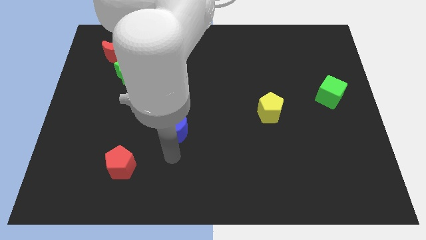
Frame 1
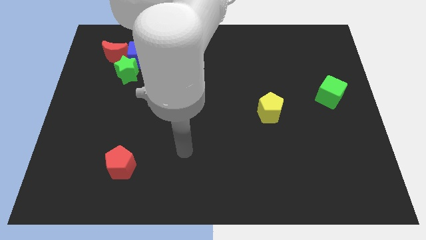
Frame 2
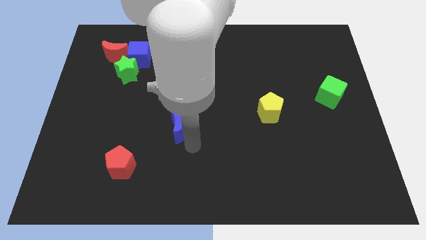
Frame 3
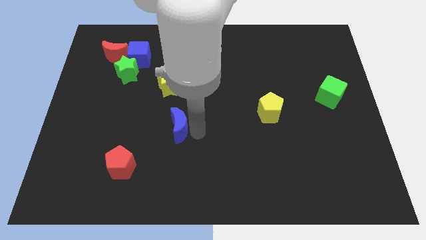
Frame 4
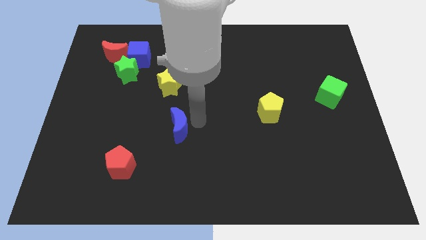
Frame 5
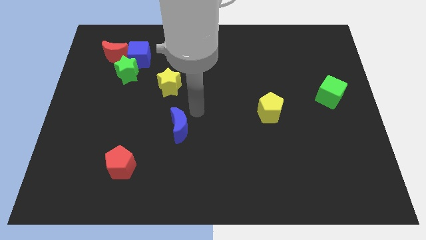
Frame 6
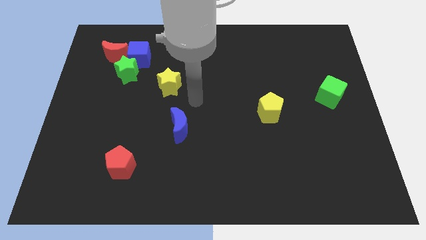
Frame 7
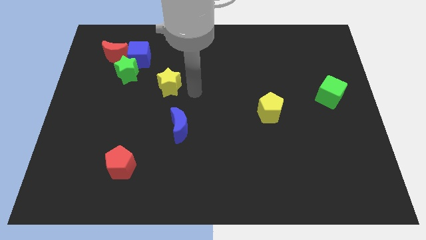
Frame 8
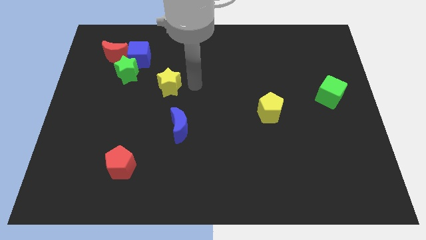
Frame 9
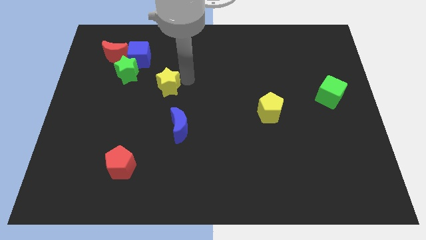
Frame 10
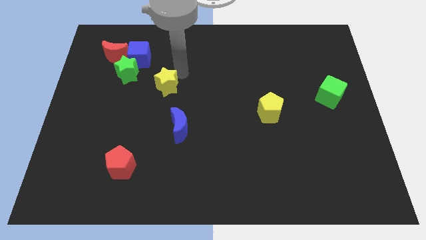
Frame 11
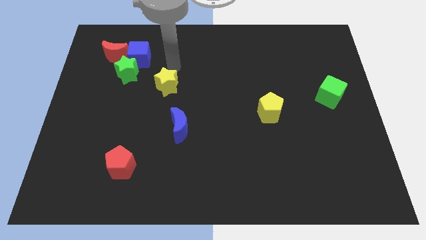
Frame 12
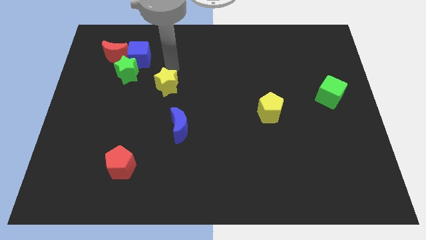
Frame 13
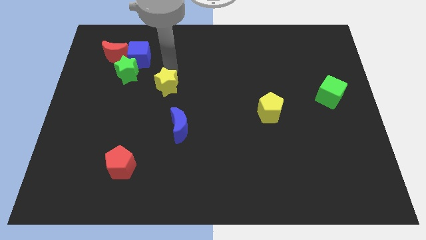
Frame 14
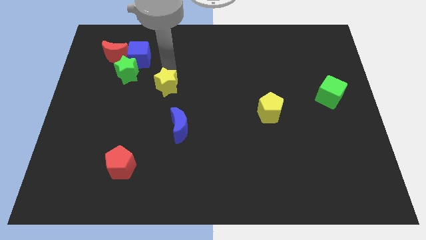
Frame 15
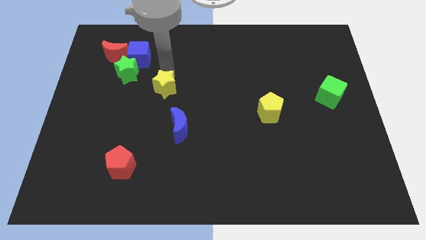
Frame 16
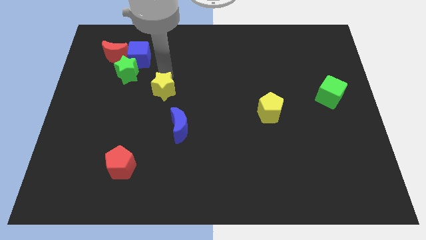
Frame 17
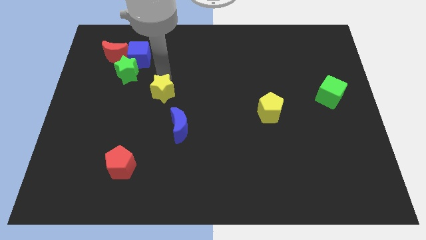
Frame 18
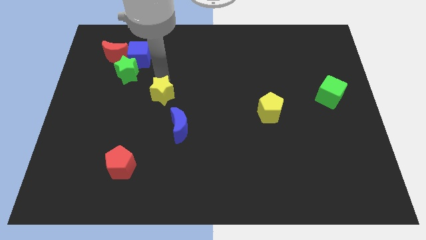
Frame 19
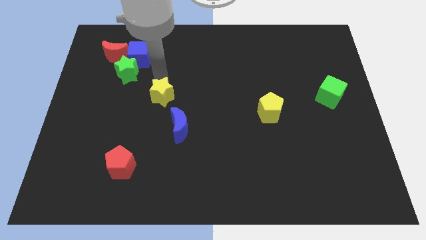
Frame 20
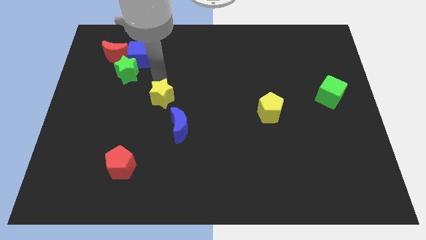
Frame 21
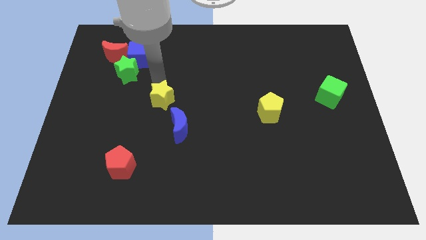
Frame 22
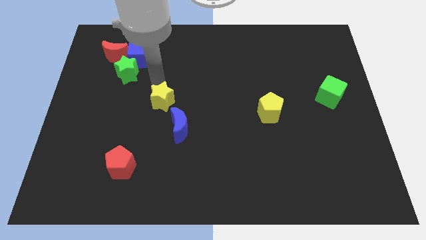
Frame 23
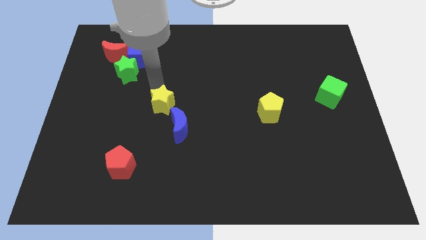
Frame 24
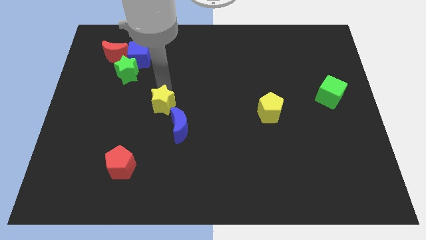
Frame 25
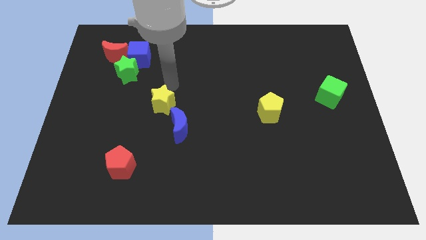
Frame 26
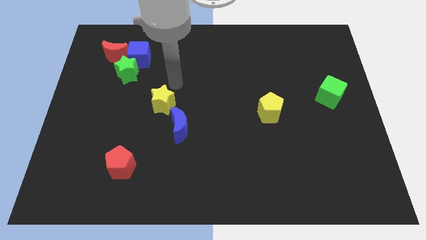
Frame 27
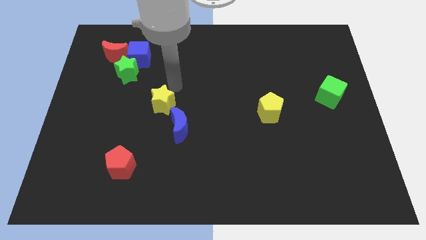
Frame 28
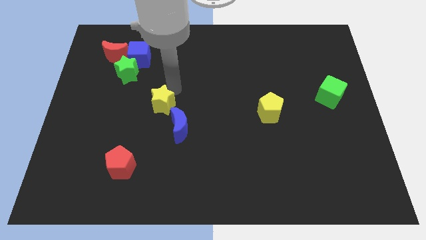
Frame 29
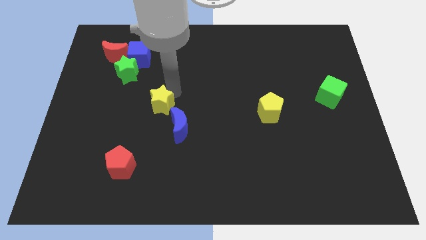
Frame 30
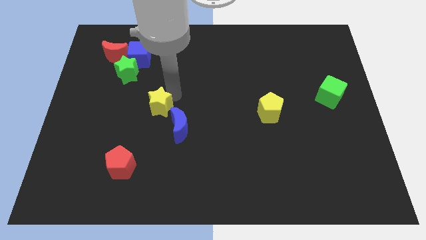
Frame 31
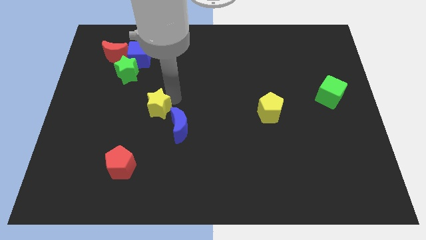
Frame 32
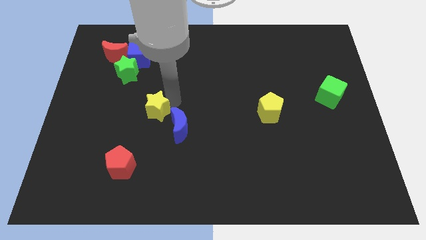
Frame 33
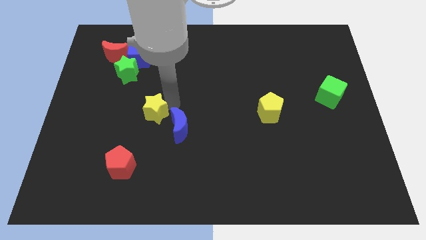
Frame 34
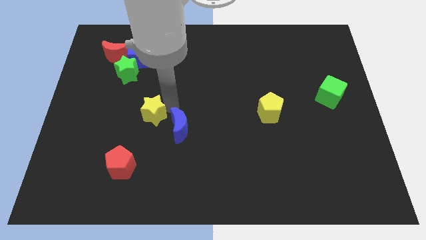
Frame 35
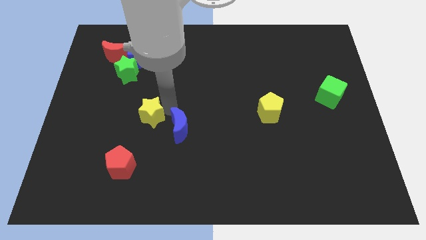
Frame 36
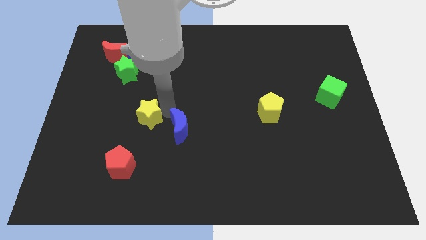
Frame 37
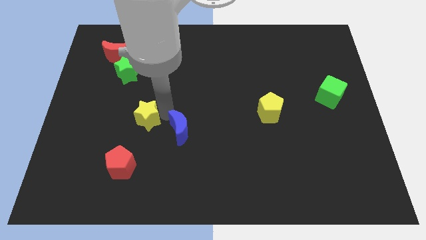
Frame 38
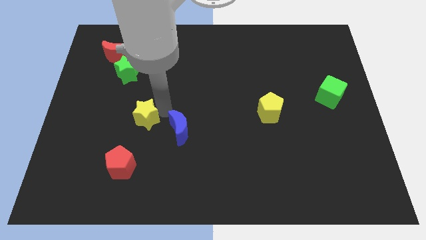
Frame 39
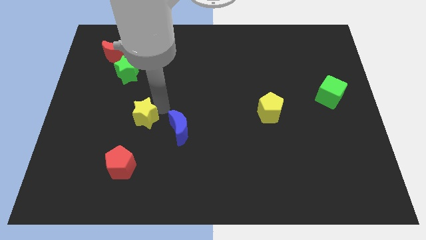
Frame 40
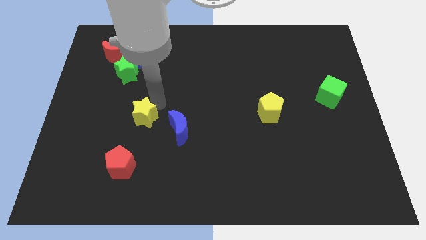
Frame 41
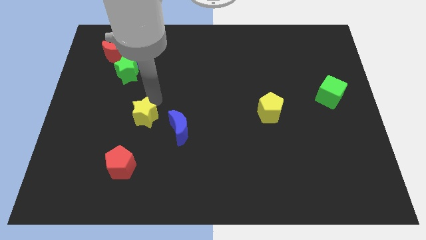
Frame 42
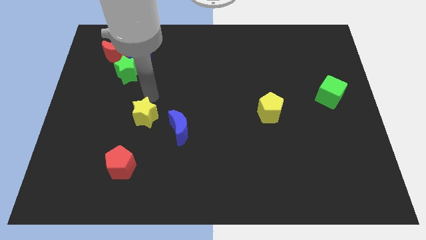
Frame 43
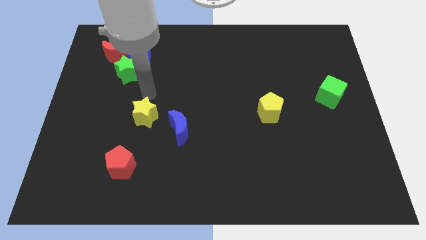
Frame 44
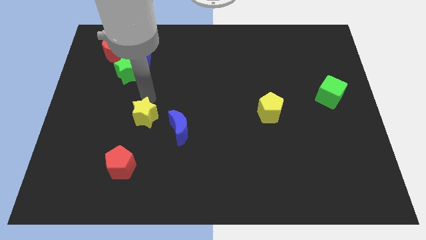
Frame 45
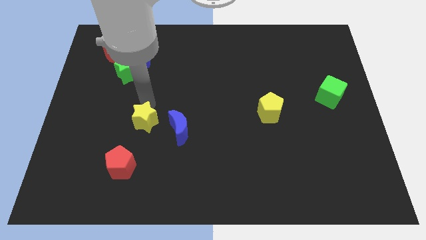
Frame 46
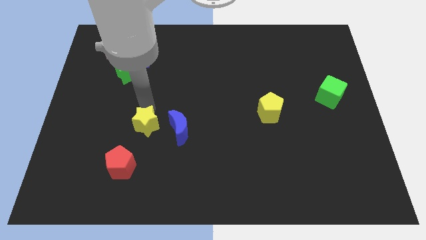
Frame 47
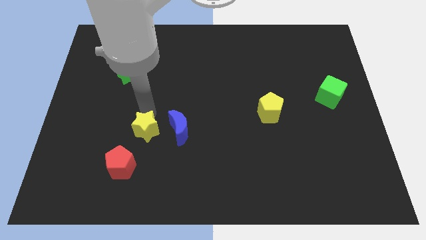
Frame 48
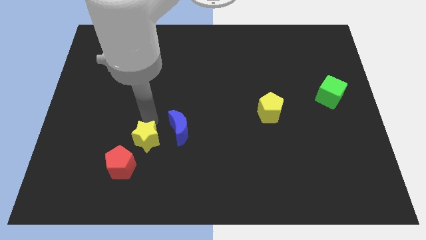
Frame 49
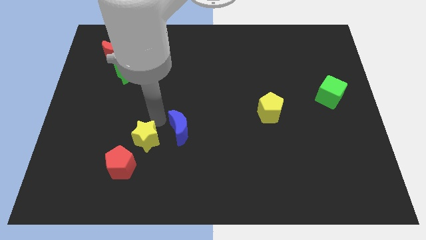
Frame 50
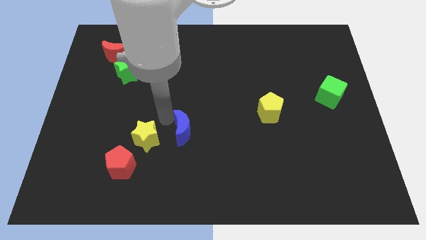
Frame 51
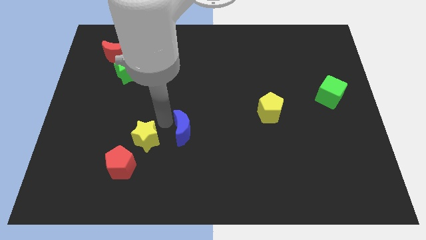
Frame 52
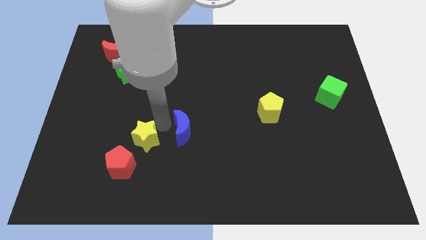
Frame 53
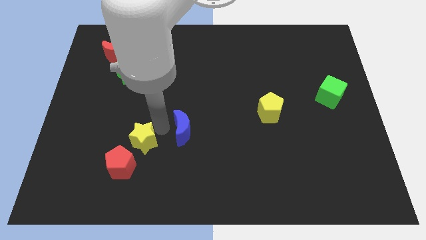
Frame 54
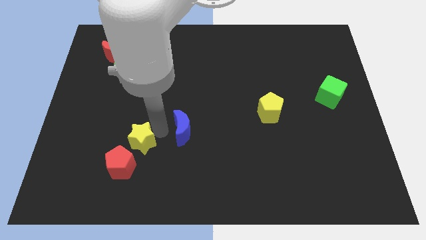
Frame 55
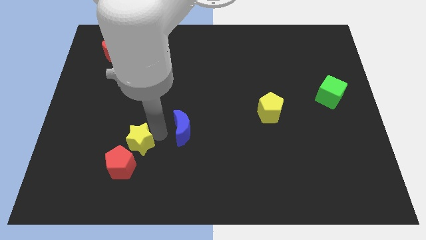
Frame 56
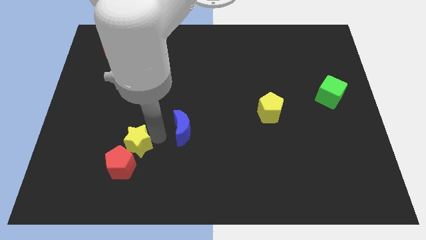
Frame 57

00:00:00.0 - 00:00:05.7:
push the yellow star towards the red pentagon

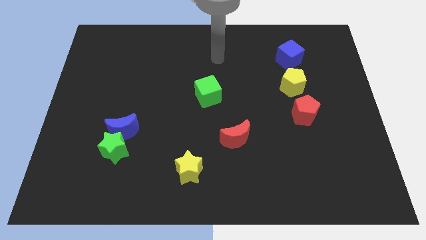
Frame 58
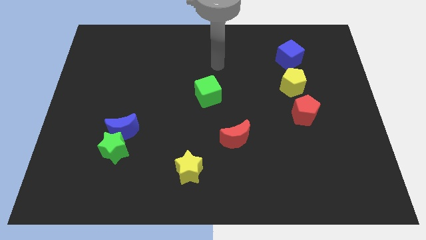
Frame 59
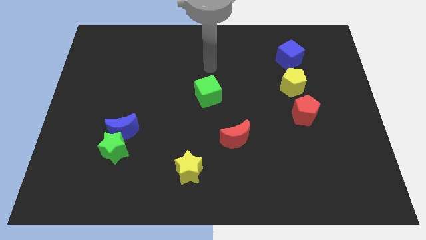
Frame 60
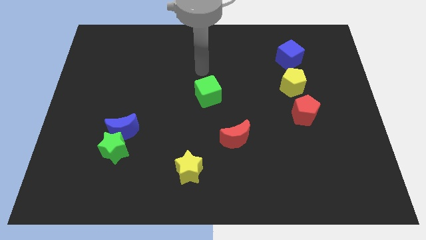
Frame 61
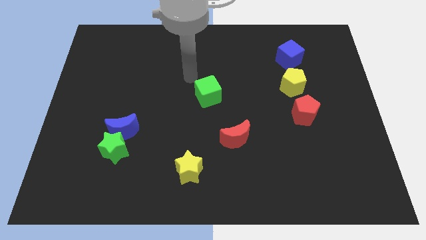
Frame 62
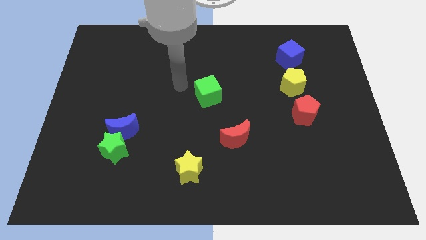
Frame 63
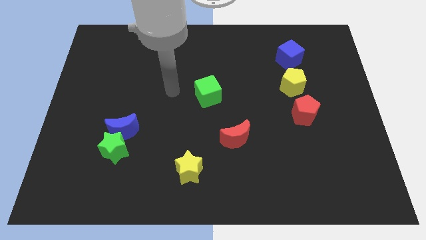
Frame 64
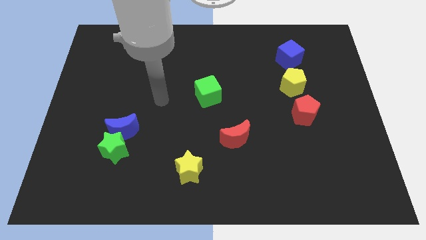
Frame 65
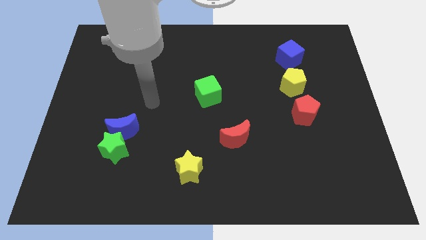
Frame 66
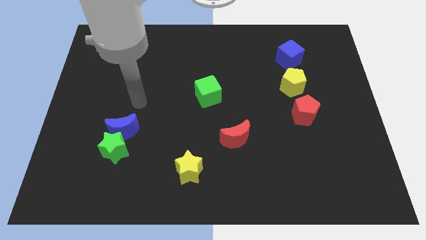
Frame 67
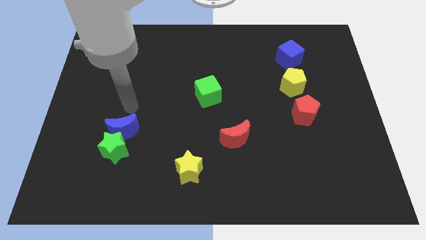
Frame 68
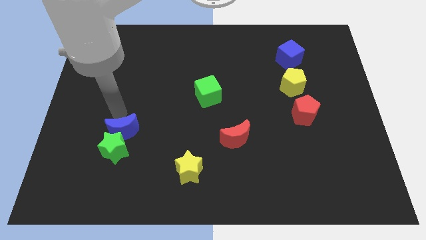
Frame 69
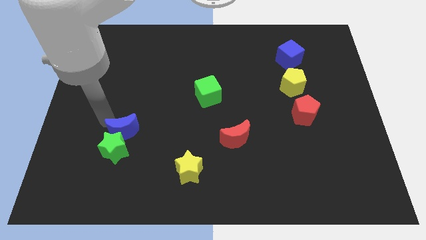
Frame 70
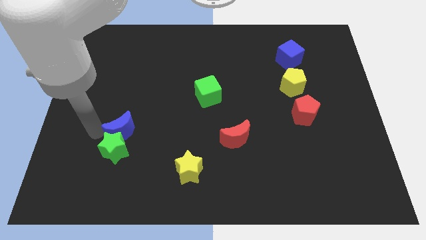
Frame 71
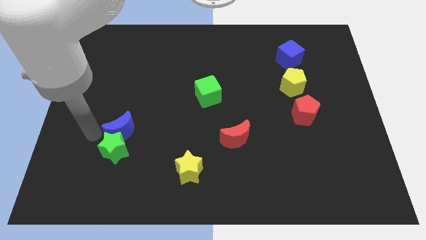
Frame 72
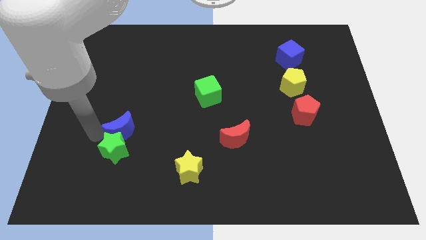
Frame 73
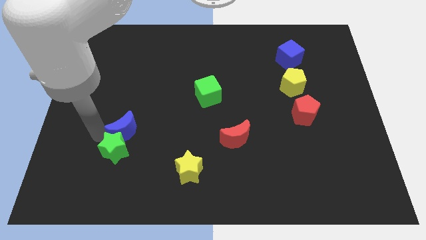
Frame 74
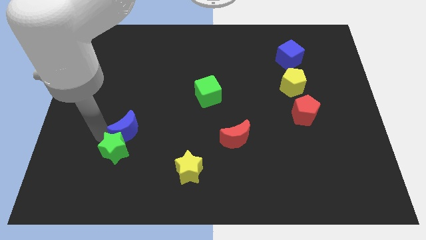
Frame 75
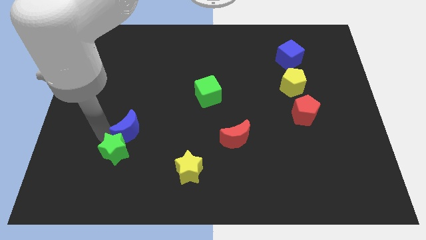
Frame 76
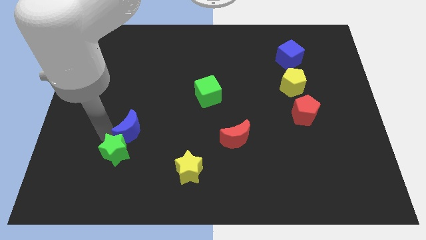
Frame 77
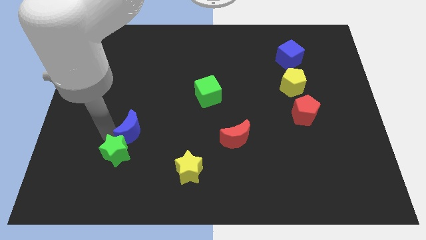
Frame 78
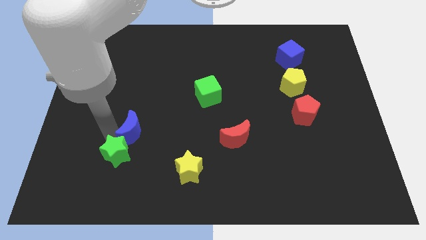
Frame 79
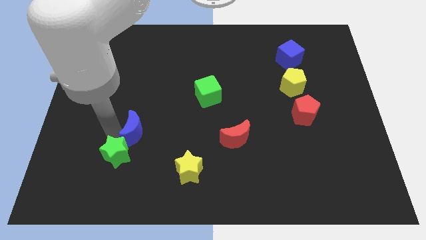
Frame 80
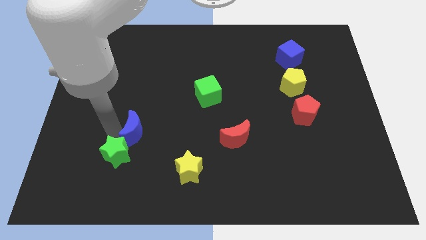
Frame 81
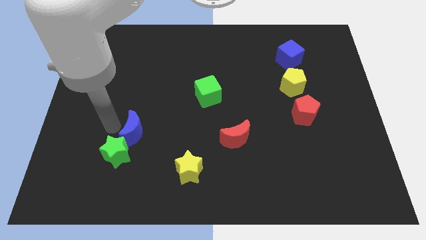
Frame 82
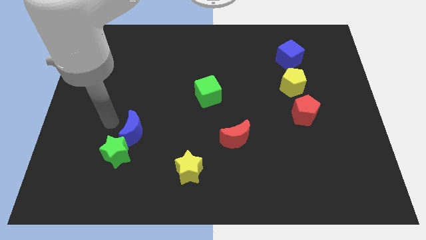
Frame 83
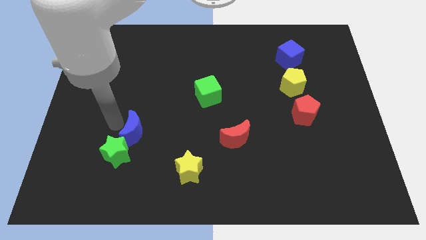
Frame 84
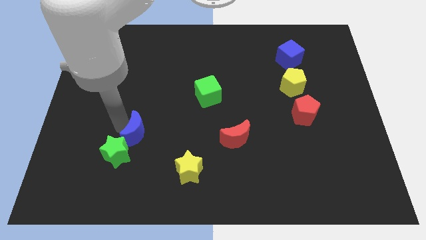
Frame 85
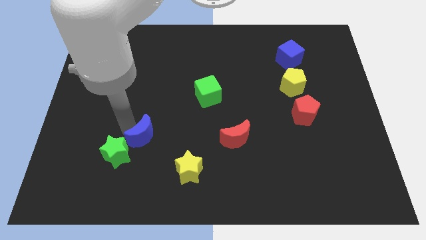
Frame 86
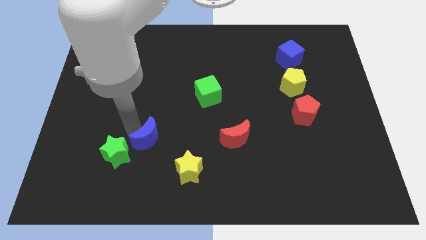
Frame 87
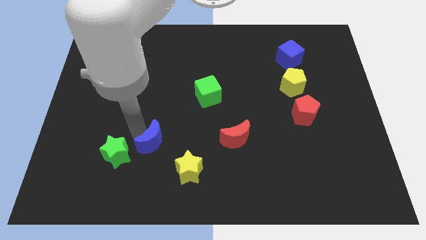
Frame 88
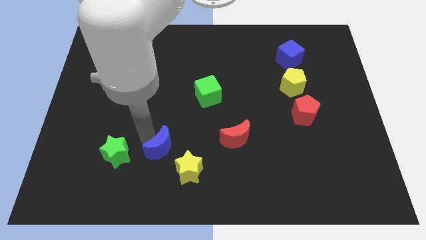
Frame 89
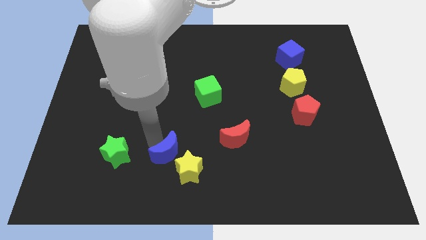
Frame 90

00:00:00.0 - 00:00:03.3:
move the blue moon towards the yellow star
